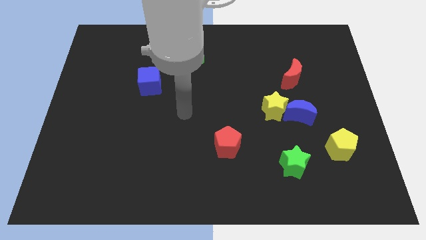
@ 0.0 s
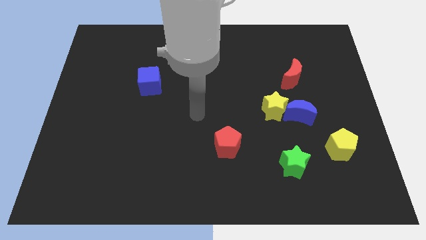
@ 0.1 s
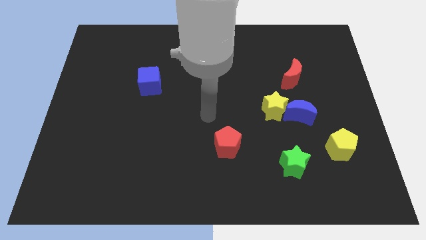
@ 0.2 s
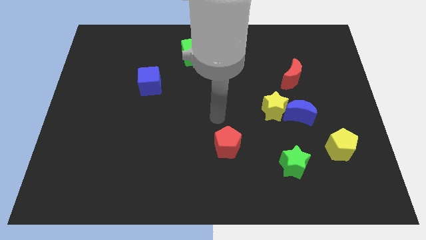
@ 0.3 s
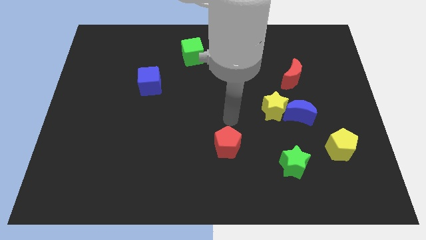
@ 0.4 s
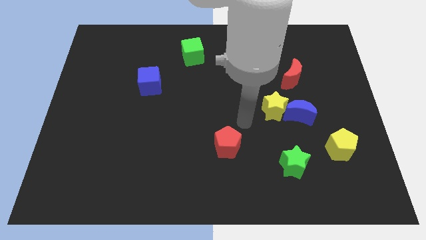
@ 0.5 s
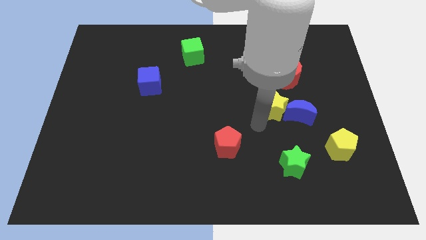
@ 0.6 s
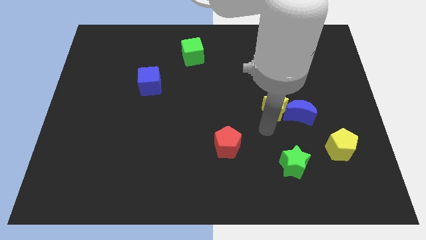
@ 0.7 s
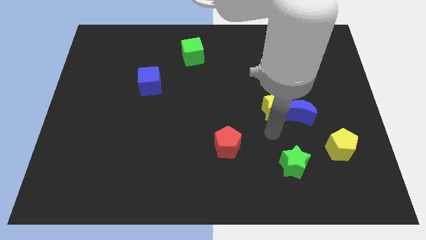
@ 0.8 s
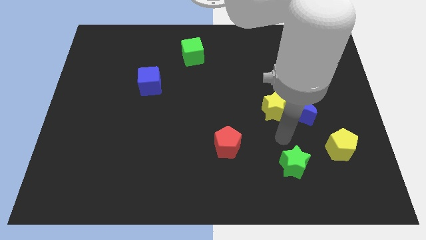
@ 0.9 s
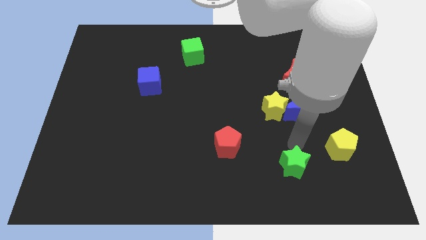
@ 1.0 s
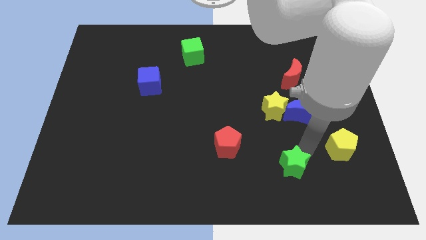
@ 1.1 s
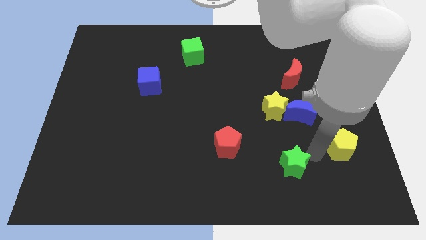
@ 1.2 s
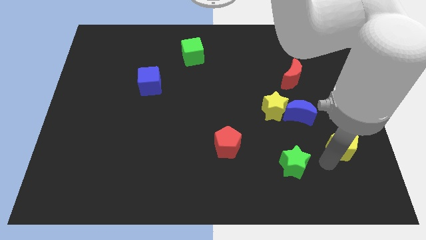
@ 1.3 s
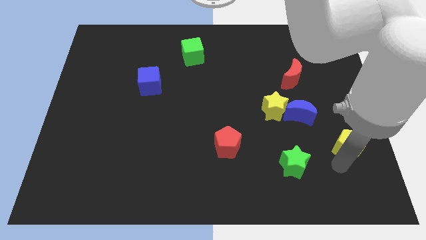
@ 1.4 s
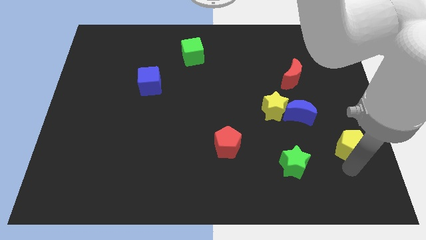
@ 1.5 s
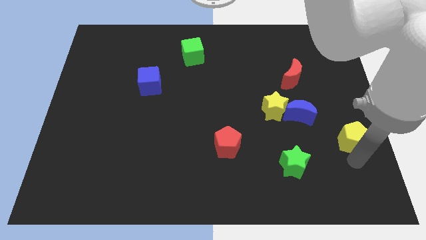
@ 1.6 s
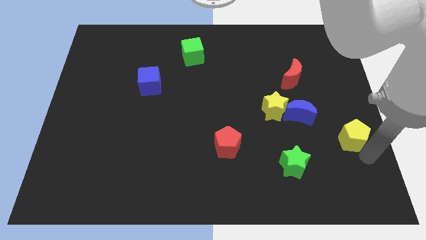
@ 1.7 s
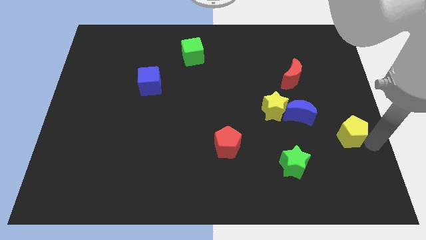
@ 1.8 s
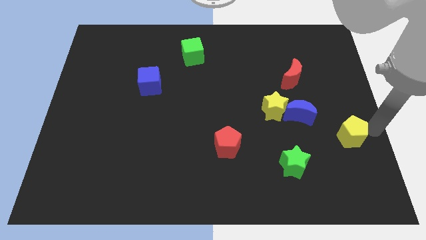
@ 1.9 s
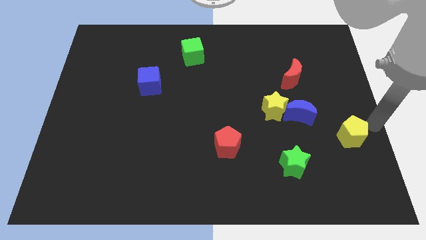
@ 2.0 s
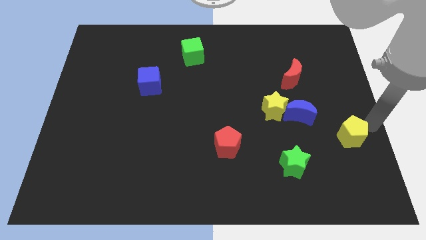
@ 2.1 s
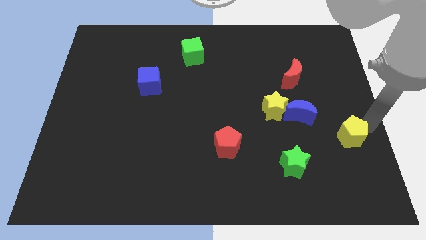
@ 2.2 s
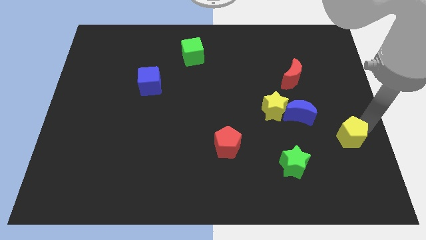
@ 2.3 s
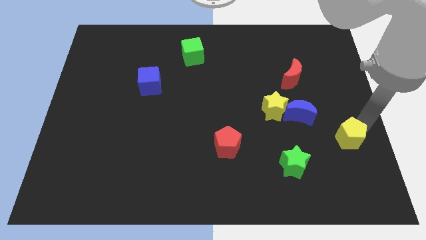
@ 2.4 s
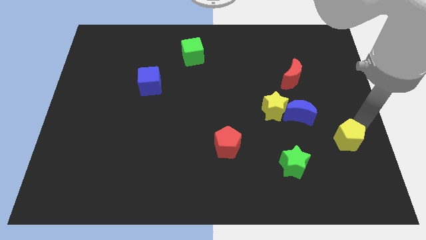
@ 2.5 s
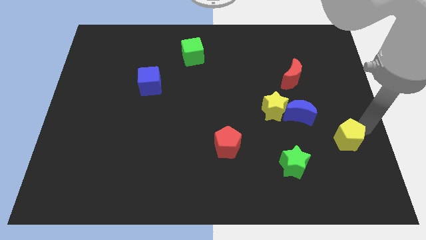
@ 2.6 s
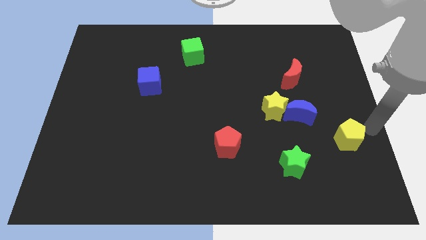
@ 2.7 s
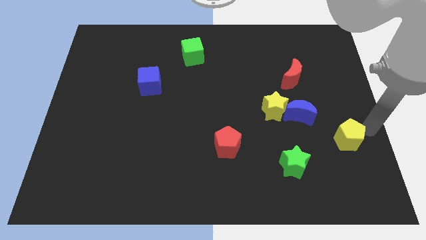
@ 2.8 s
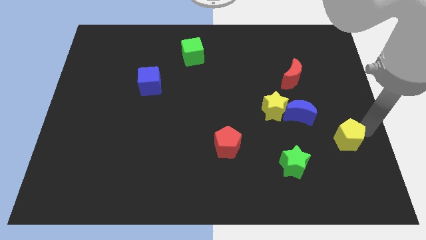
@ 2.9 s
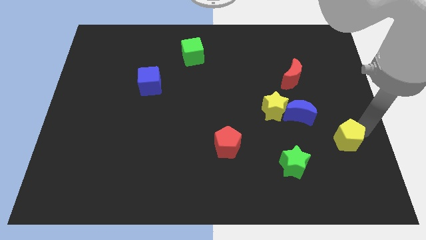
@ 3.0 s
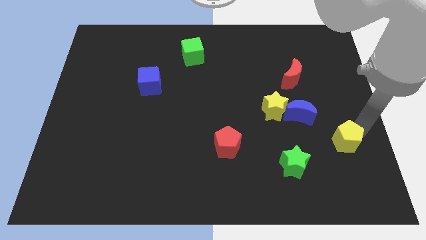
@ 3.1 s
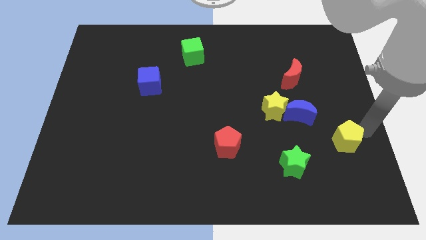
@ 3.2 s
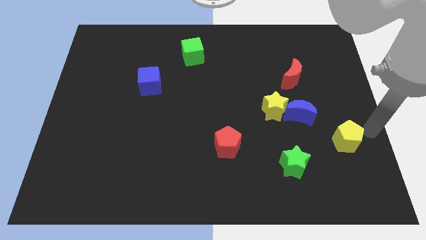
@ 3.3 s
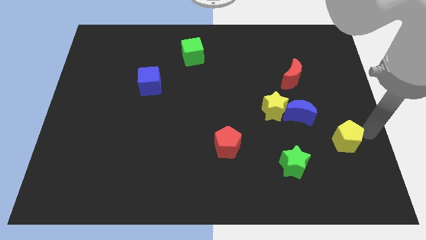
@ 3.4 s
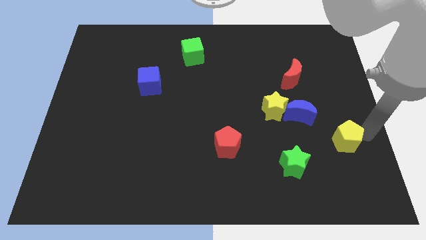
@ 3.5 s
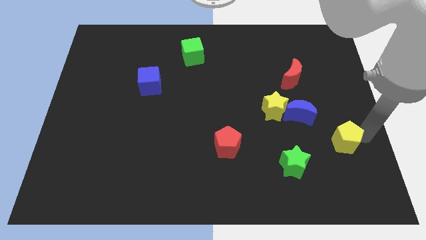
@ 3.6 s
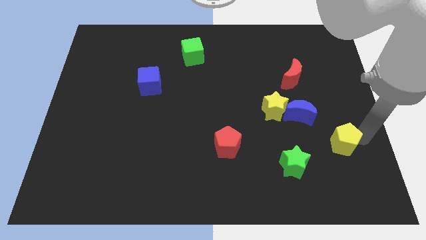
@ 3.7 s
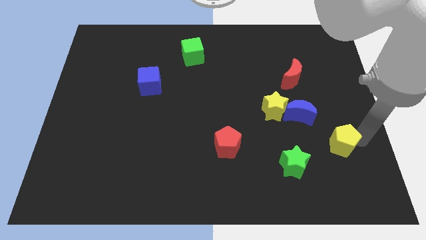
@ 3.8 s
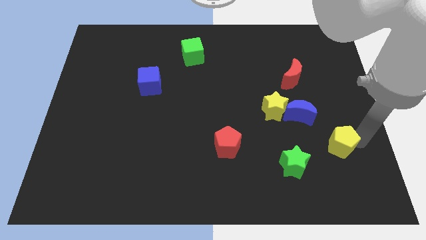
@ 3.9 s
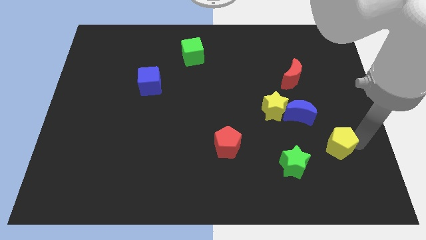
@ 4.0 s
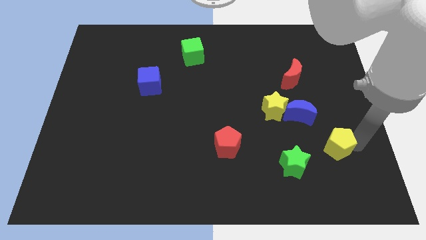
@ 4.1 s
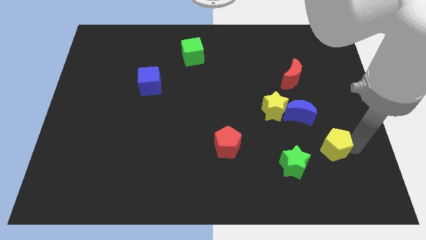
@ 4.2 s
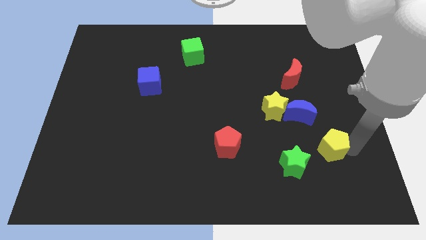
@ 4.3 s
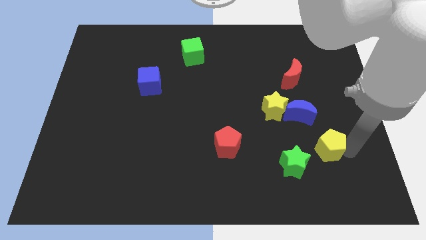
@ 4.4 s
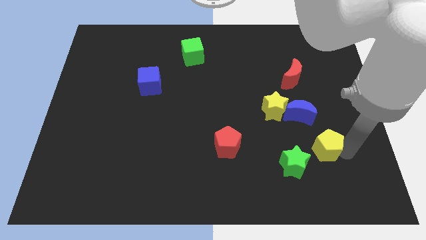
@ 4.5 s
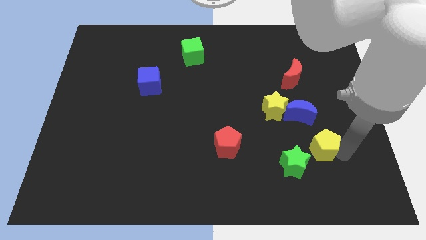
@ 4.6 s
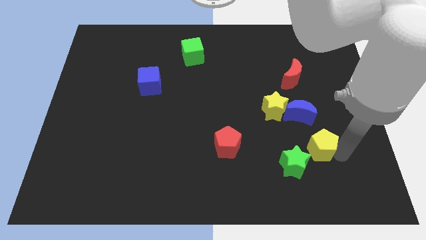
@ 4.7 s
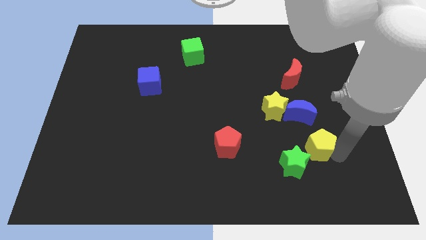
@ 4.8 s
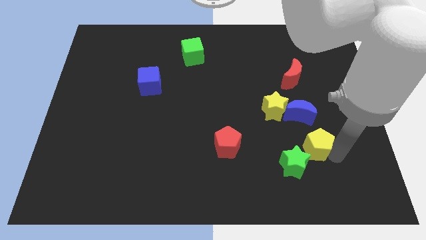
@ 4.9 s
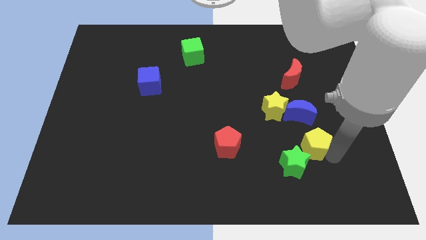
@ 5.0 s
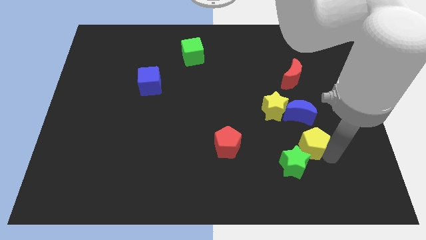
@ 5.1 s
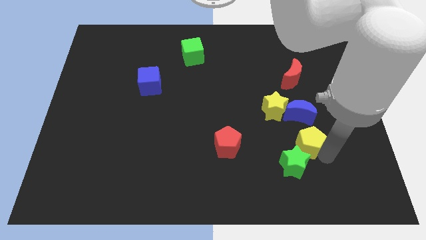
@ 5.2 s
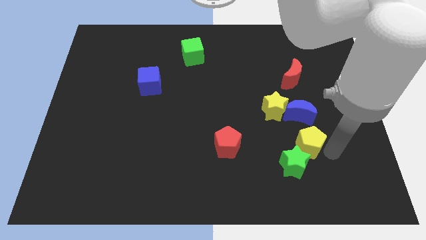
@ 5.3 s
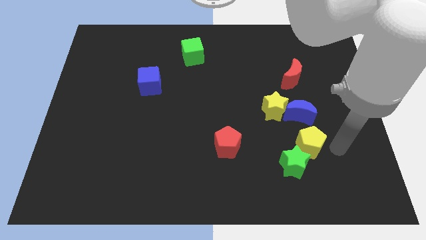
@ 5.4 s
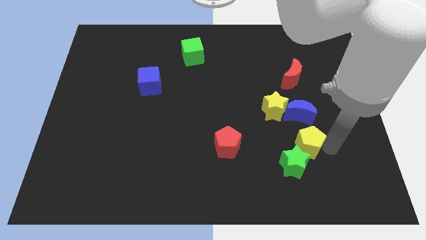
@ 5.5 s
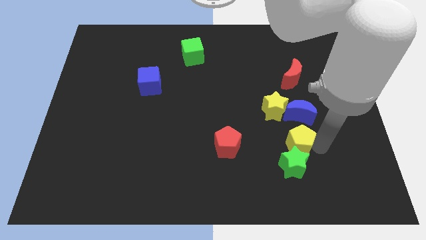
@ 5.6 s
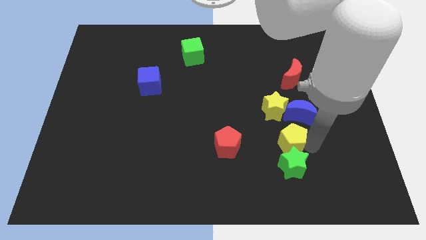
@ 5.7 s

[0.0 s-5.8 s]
put the yellow pentagon diagonally up and to the left of the green star

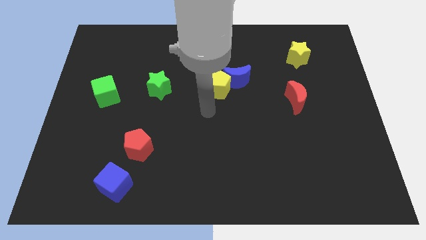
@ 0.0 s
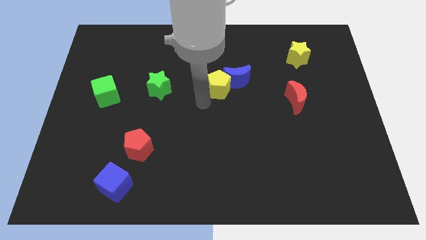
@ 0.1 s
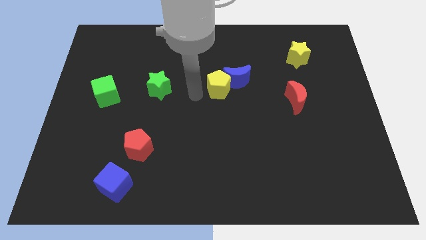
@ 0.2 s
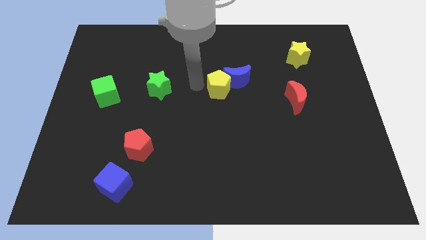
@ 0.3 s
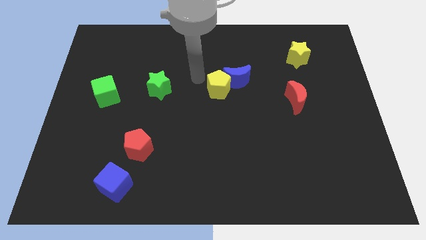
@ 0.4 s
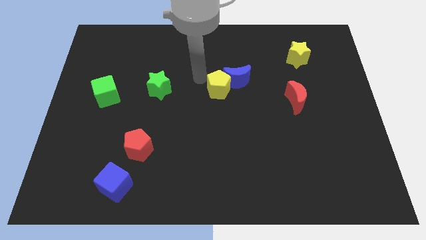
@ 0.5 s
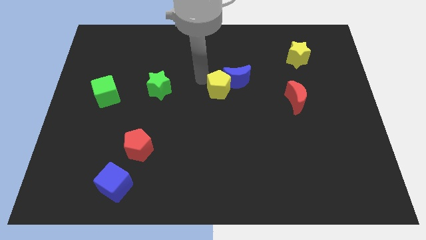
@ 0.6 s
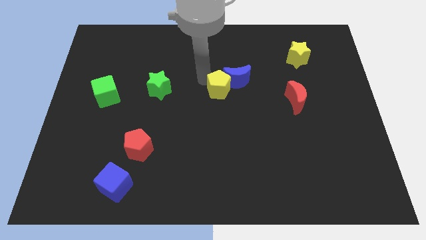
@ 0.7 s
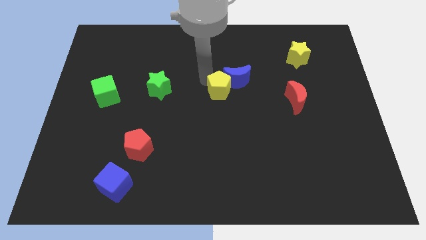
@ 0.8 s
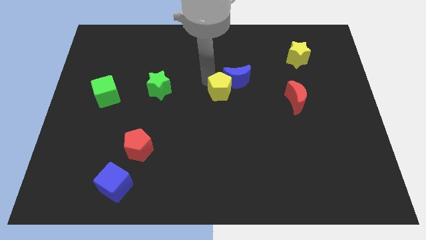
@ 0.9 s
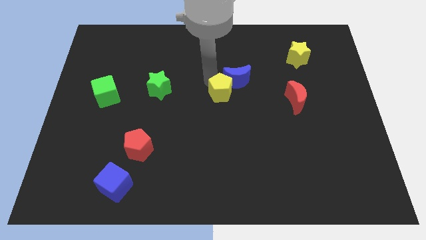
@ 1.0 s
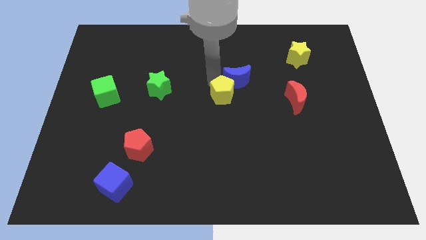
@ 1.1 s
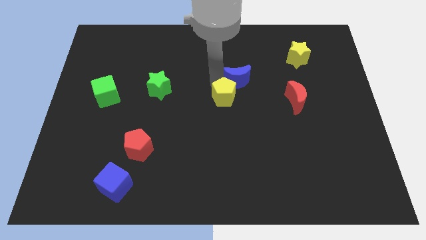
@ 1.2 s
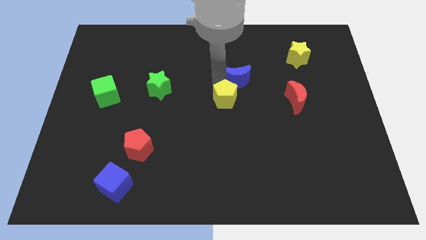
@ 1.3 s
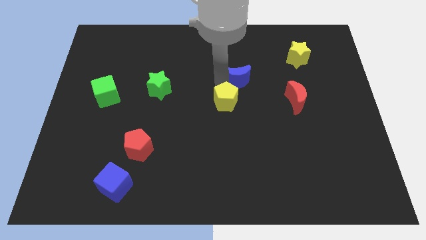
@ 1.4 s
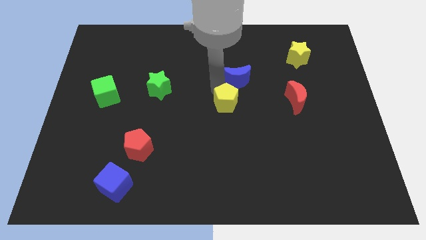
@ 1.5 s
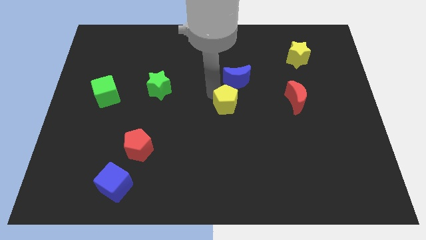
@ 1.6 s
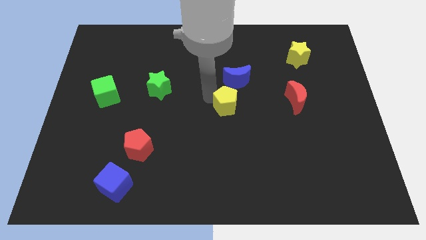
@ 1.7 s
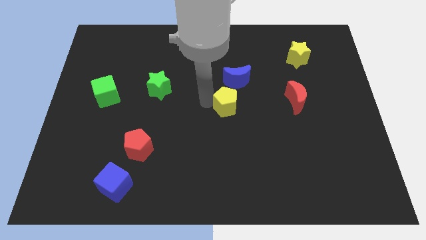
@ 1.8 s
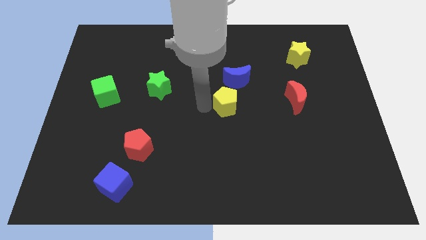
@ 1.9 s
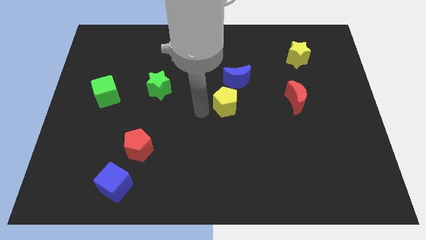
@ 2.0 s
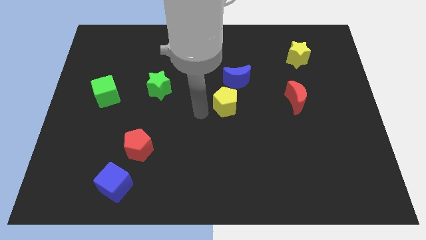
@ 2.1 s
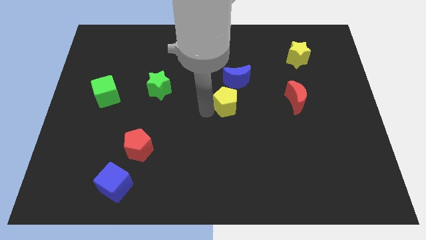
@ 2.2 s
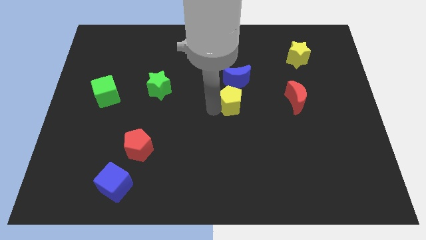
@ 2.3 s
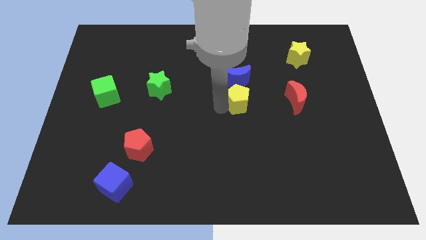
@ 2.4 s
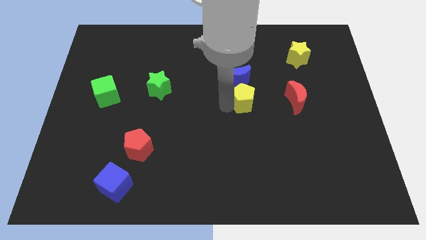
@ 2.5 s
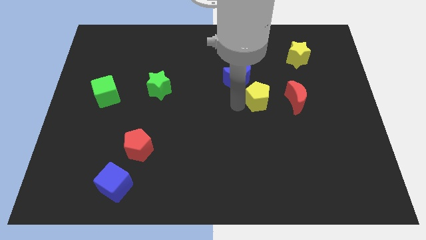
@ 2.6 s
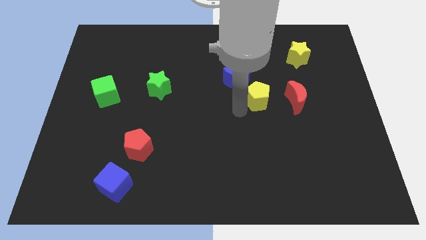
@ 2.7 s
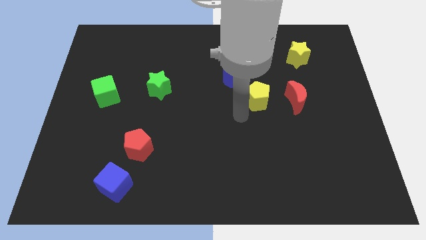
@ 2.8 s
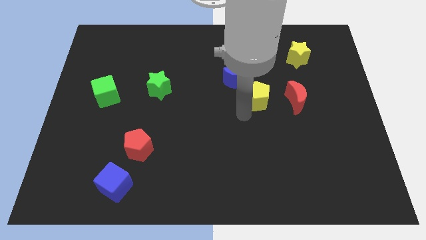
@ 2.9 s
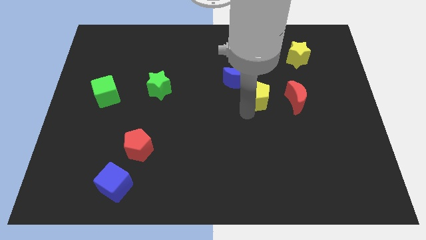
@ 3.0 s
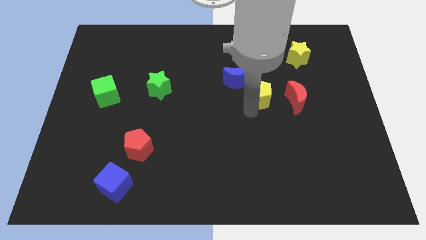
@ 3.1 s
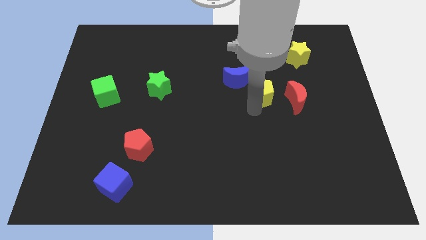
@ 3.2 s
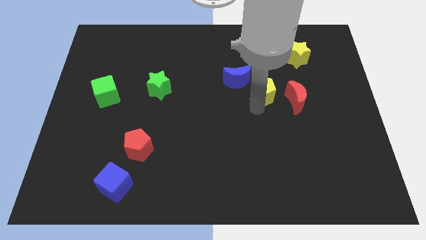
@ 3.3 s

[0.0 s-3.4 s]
put the yellow pentagon right of the blue moon
